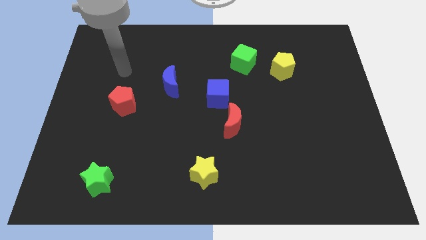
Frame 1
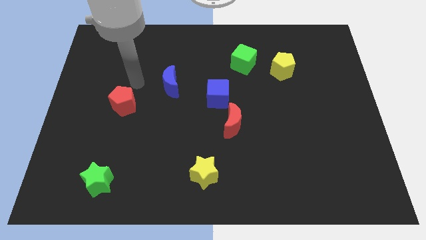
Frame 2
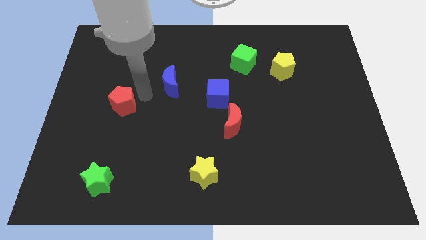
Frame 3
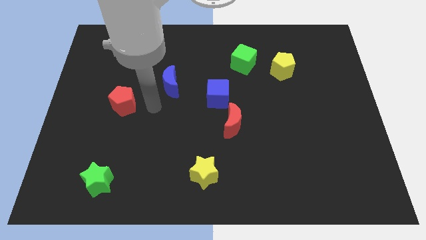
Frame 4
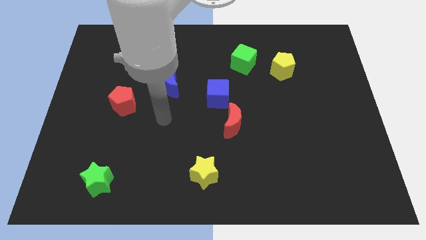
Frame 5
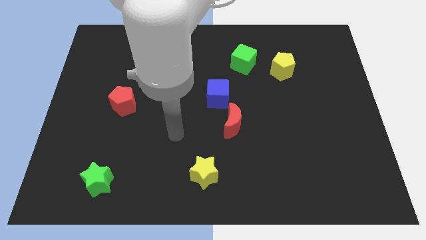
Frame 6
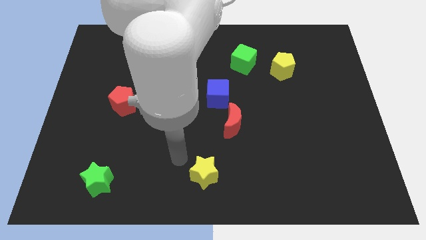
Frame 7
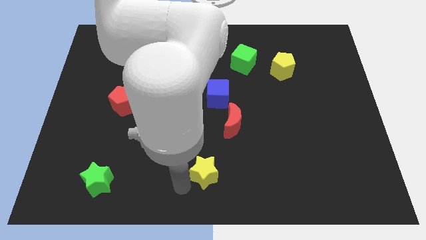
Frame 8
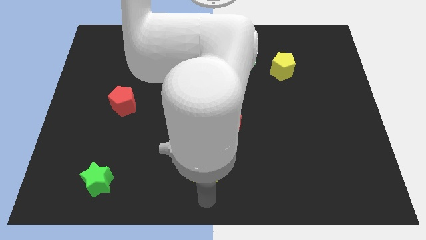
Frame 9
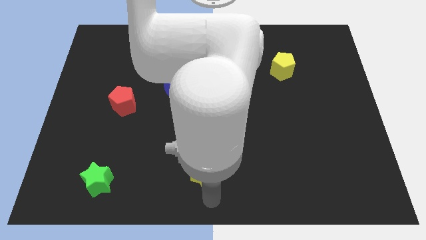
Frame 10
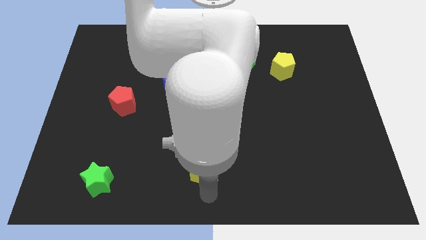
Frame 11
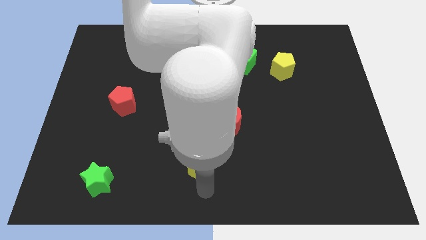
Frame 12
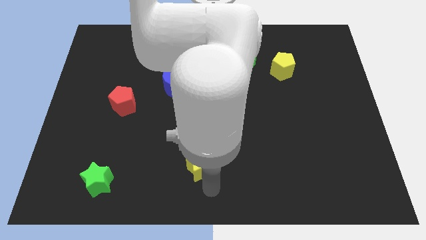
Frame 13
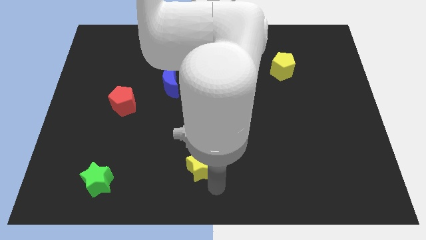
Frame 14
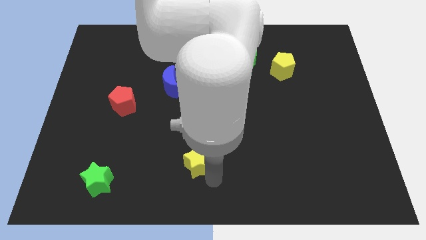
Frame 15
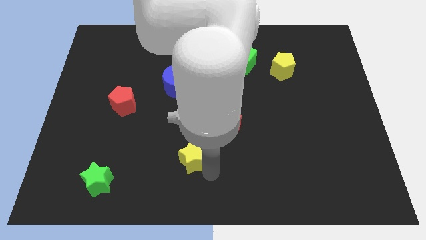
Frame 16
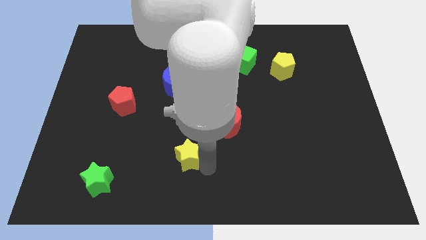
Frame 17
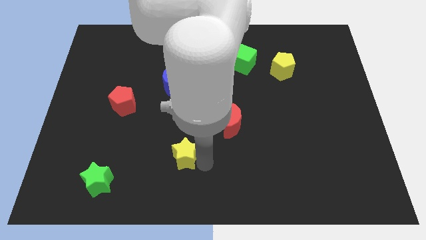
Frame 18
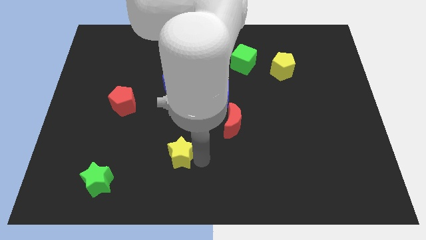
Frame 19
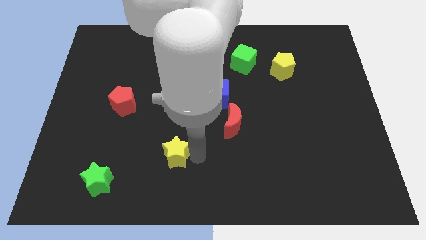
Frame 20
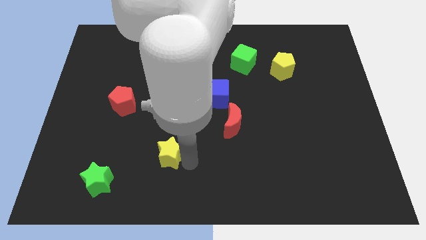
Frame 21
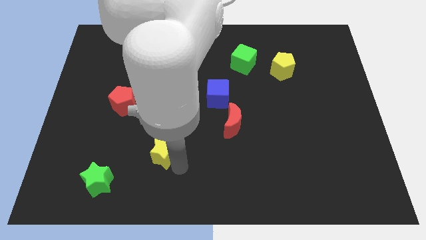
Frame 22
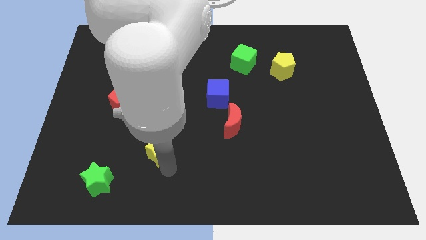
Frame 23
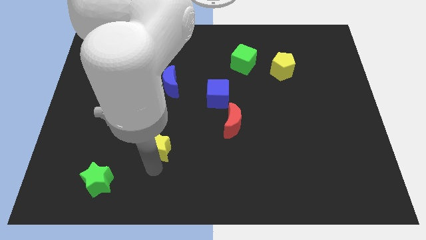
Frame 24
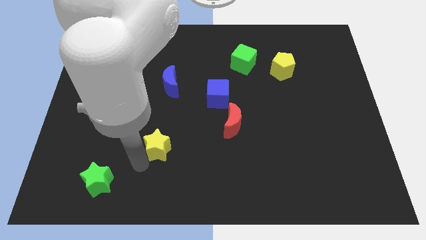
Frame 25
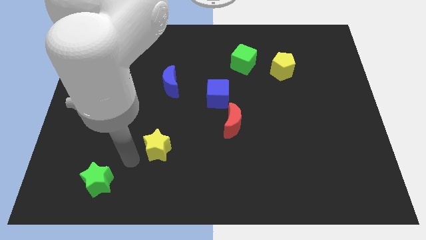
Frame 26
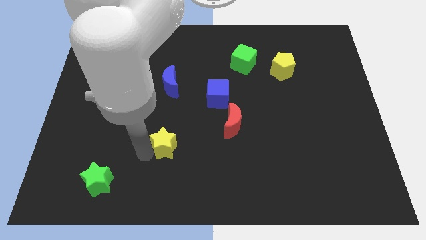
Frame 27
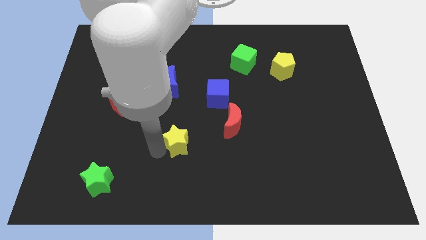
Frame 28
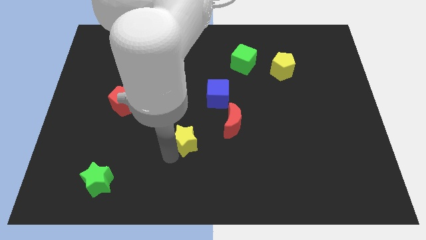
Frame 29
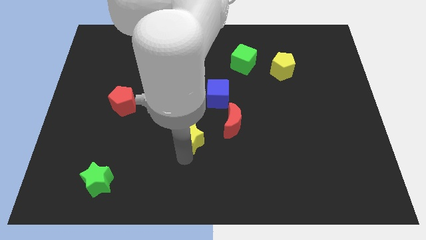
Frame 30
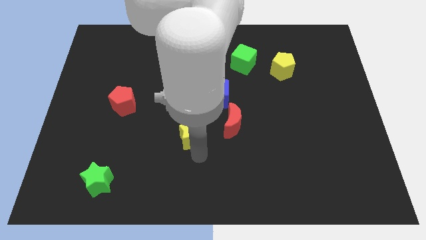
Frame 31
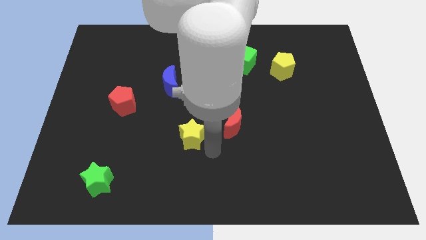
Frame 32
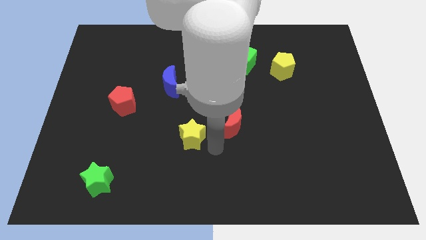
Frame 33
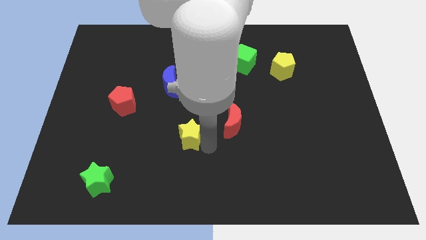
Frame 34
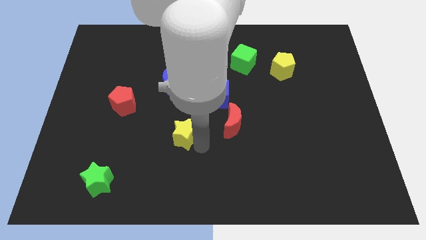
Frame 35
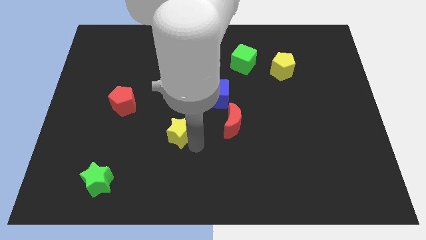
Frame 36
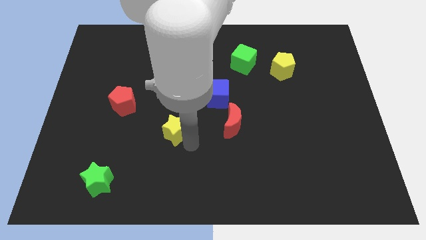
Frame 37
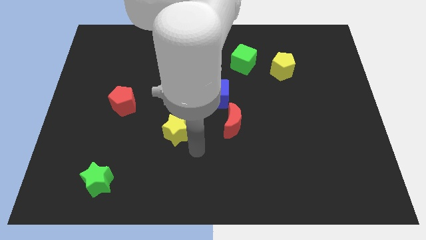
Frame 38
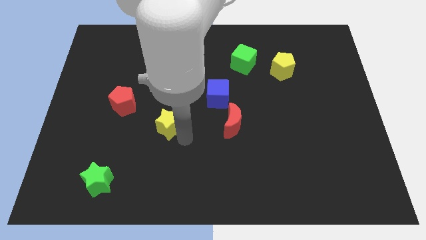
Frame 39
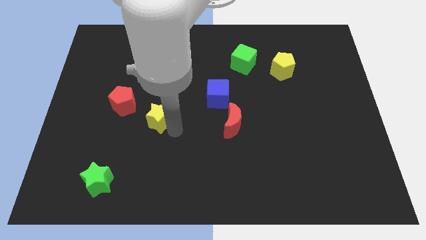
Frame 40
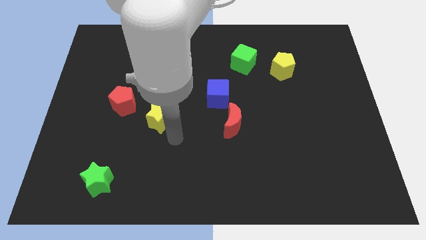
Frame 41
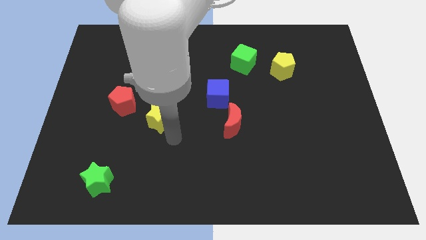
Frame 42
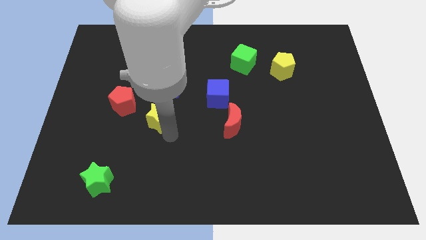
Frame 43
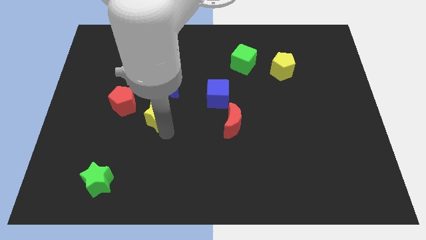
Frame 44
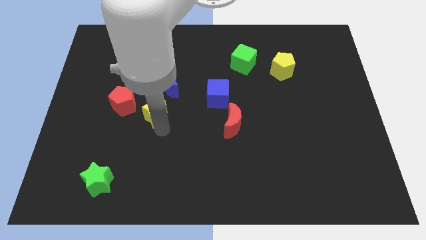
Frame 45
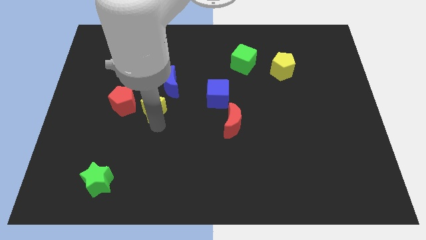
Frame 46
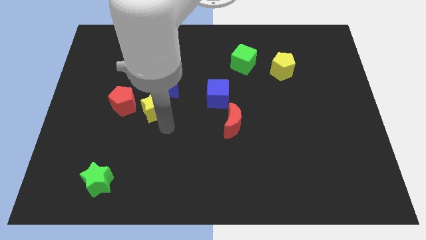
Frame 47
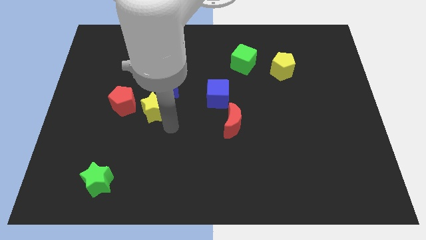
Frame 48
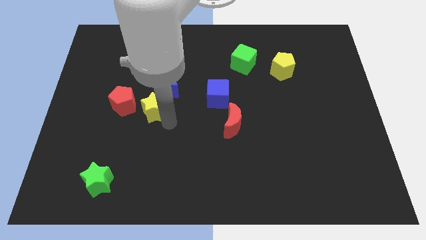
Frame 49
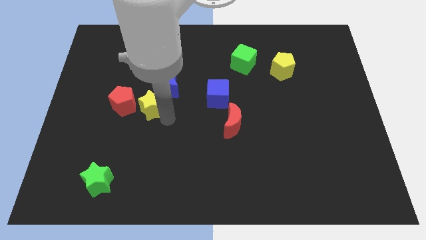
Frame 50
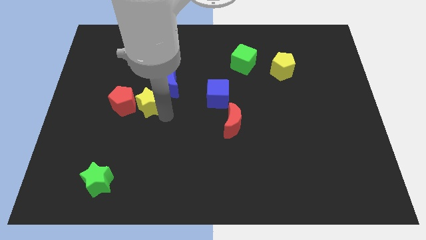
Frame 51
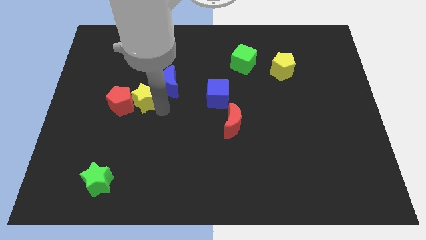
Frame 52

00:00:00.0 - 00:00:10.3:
move the yellow star to the left of the blue moon

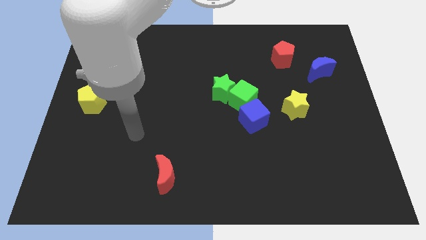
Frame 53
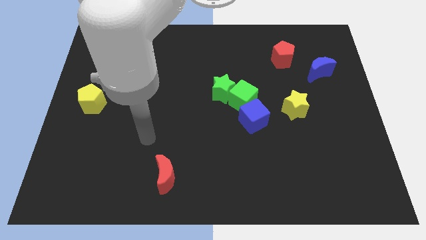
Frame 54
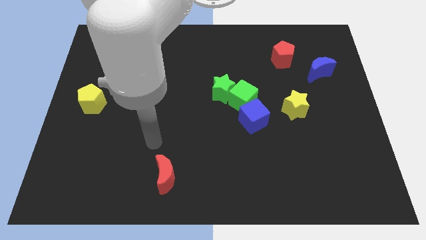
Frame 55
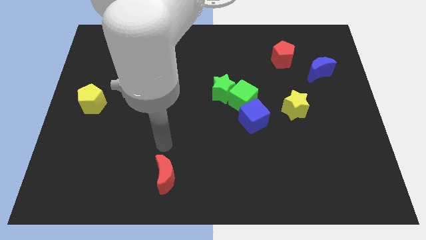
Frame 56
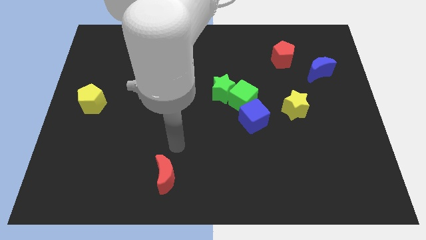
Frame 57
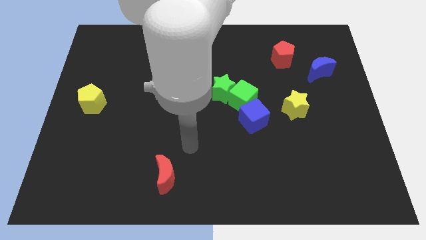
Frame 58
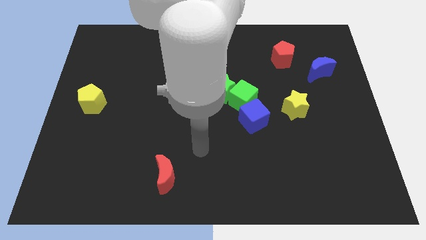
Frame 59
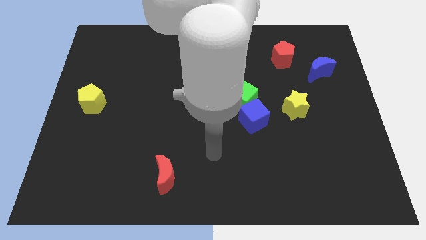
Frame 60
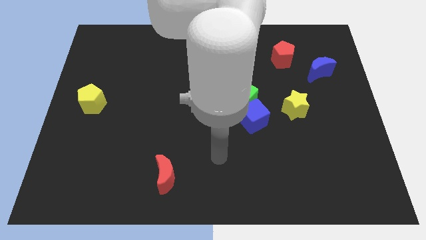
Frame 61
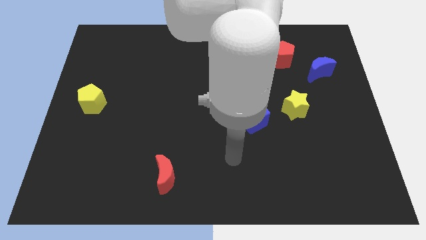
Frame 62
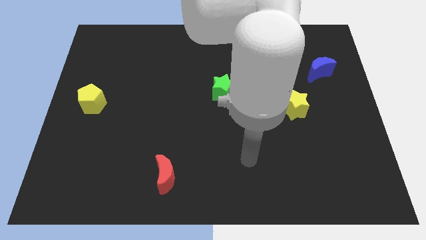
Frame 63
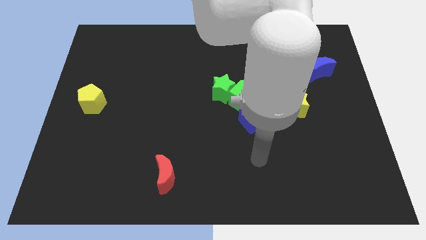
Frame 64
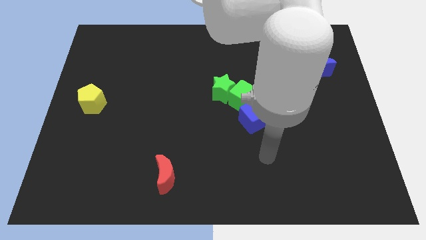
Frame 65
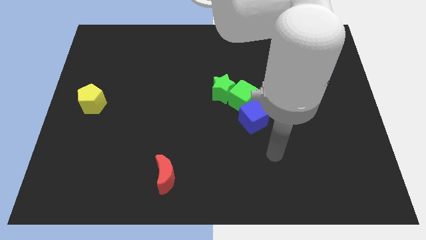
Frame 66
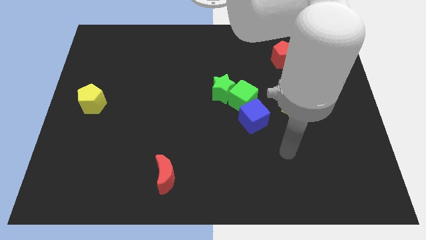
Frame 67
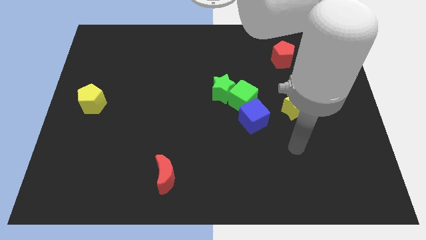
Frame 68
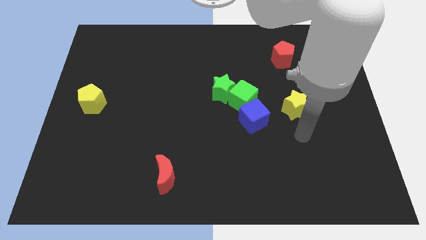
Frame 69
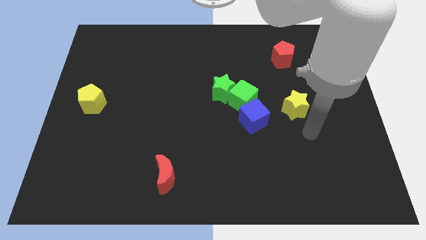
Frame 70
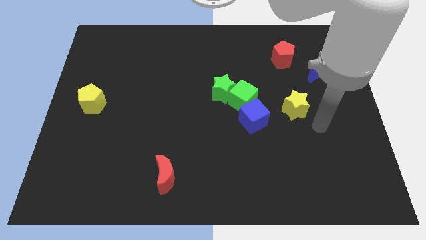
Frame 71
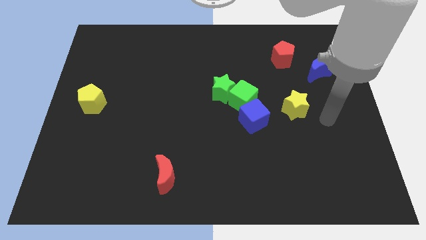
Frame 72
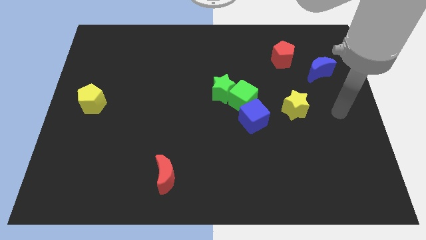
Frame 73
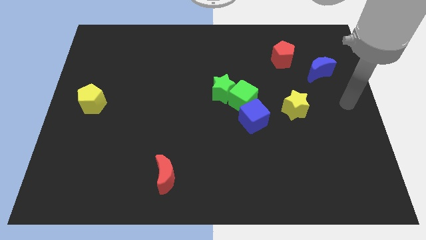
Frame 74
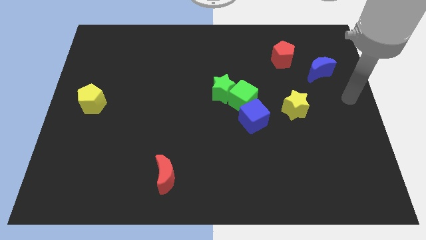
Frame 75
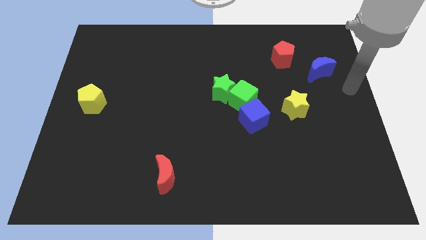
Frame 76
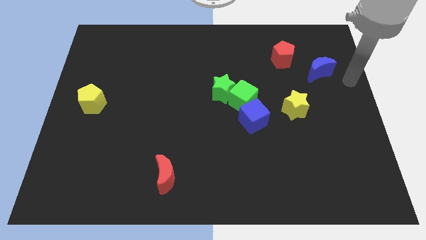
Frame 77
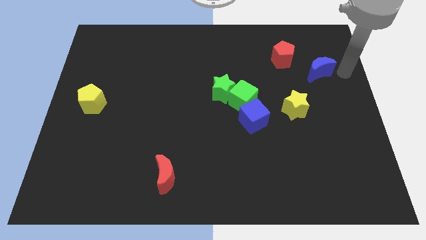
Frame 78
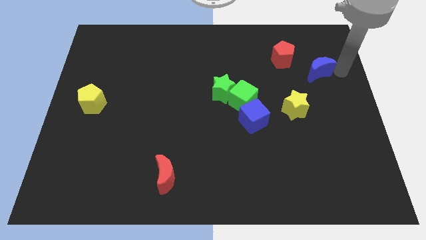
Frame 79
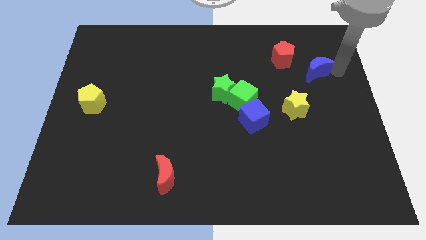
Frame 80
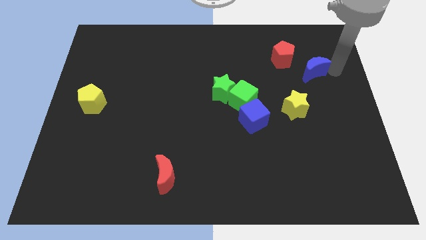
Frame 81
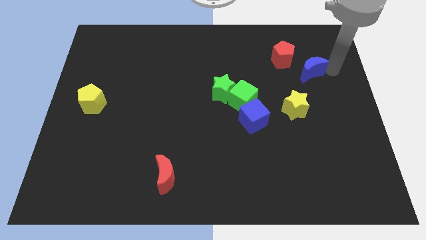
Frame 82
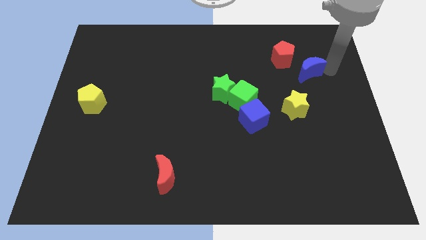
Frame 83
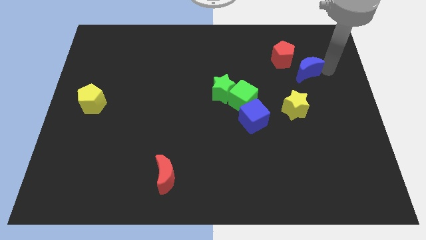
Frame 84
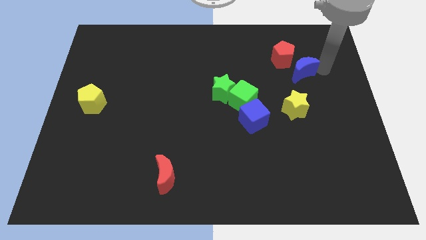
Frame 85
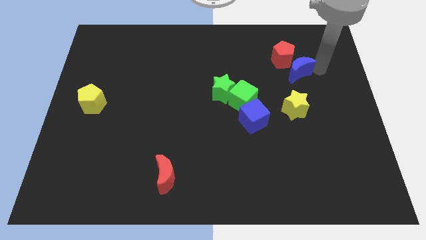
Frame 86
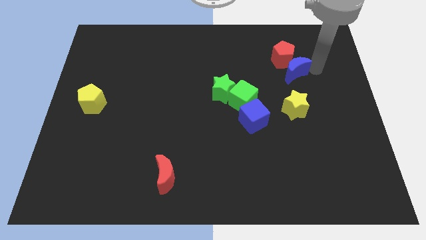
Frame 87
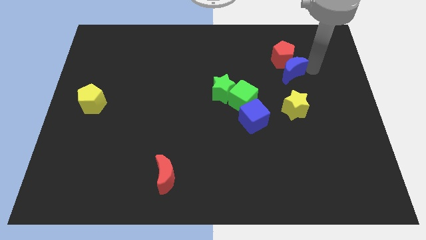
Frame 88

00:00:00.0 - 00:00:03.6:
move the blue moon diagonally down and to the left of the red pentagon
